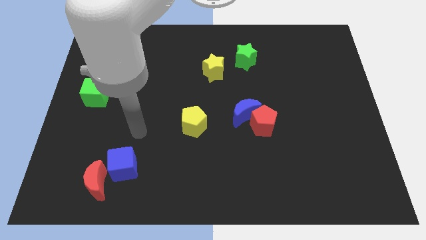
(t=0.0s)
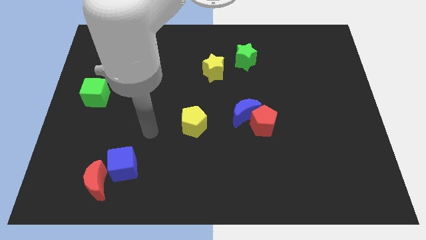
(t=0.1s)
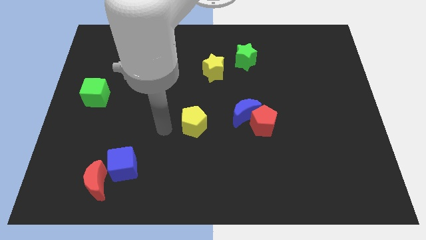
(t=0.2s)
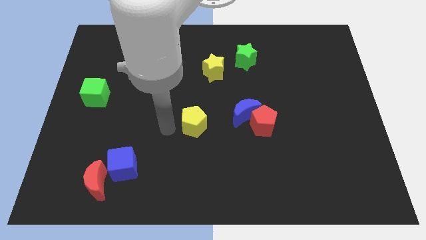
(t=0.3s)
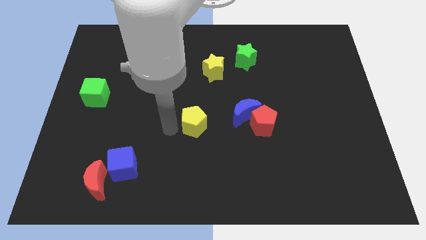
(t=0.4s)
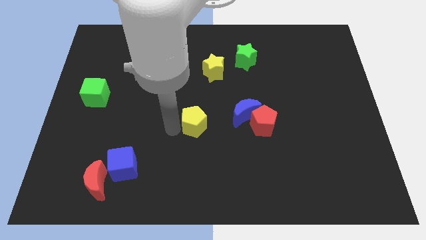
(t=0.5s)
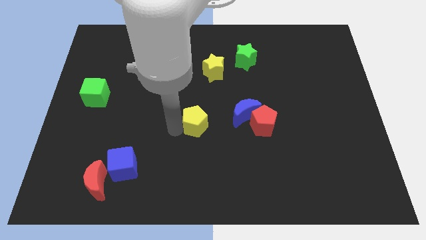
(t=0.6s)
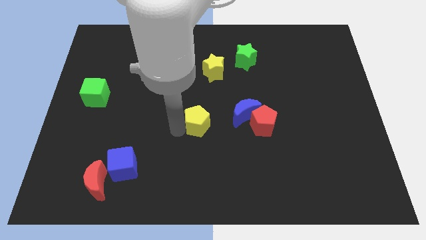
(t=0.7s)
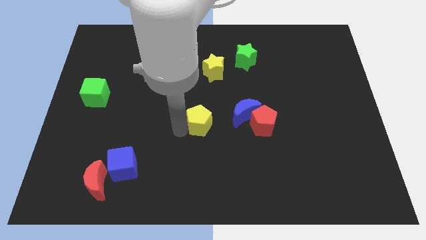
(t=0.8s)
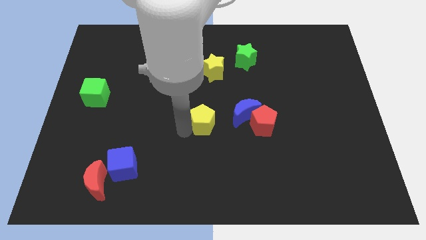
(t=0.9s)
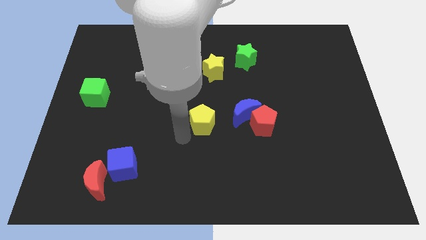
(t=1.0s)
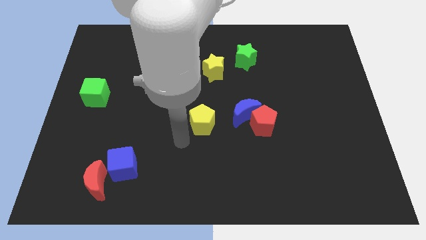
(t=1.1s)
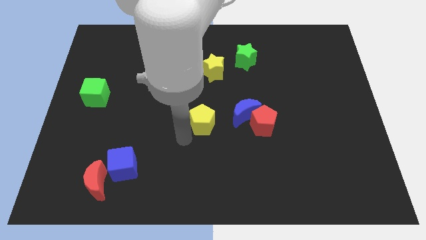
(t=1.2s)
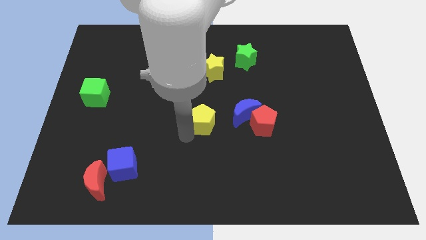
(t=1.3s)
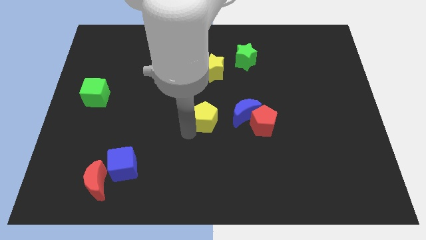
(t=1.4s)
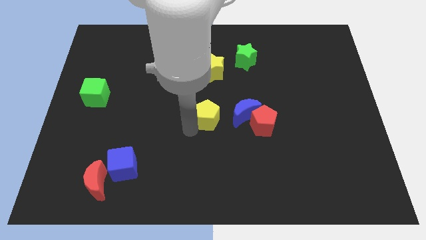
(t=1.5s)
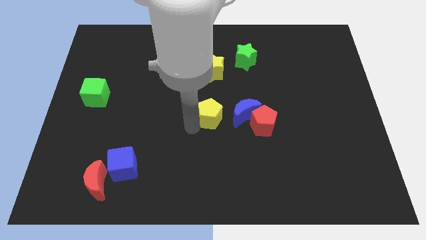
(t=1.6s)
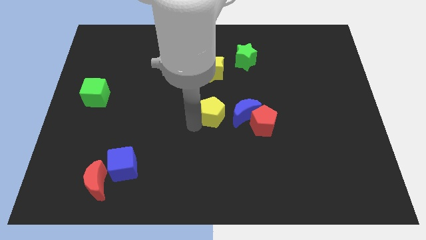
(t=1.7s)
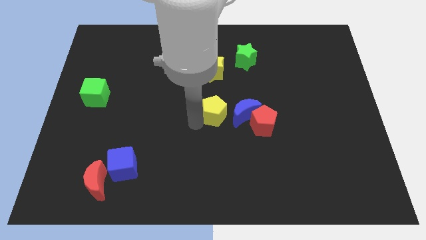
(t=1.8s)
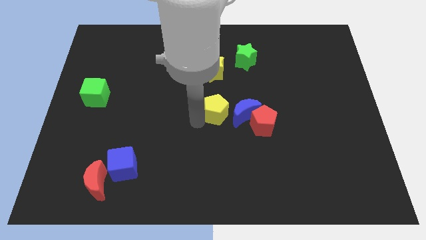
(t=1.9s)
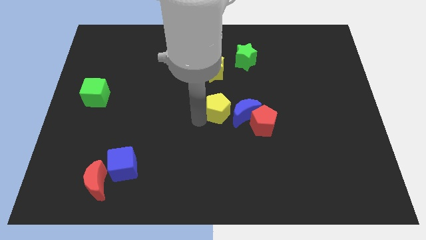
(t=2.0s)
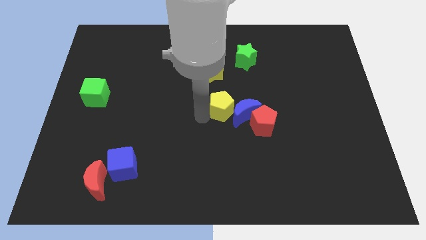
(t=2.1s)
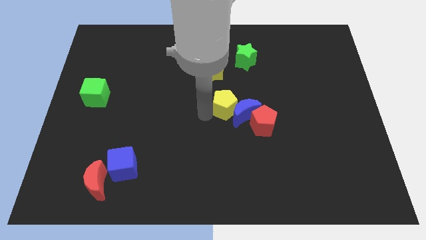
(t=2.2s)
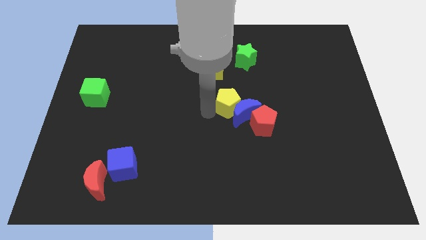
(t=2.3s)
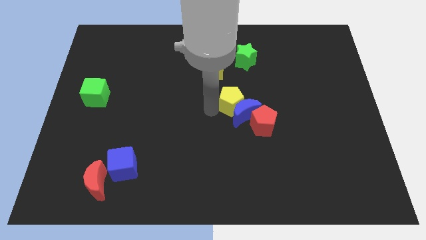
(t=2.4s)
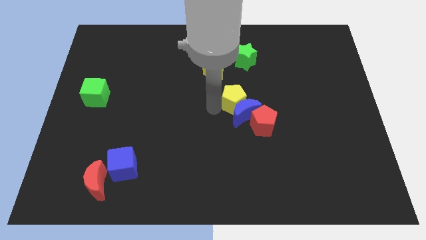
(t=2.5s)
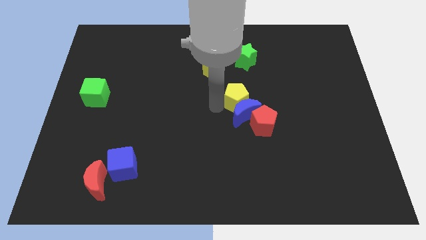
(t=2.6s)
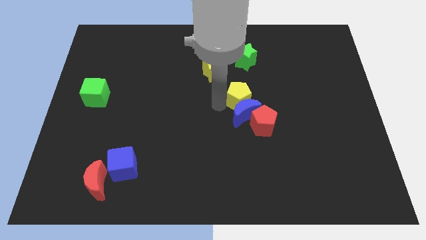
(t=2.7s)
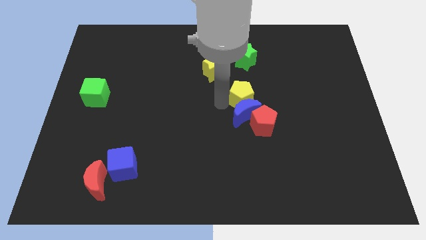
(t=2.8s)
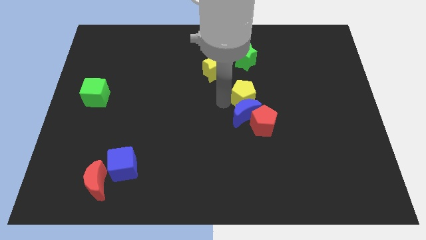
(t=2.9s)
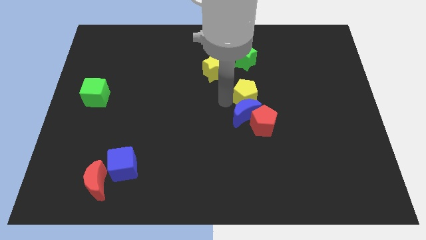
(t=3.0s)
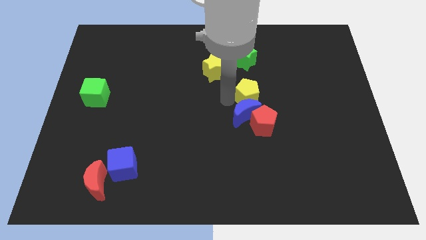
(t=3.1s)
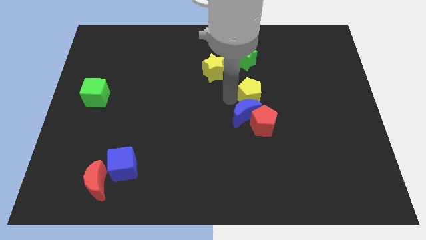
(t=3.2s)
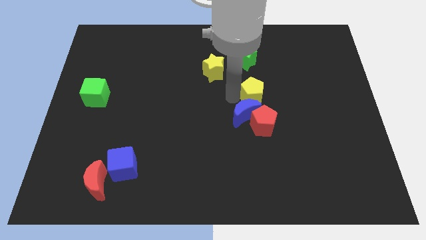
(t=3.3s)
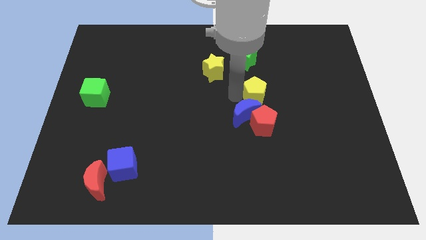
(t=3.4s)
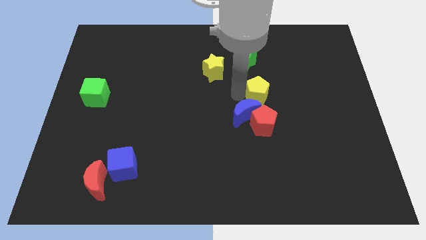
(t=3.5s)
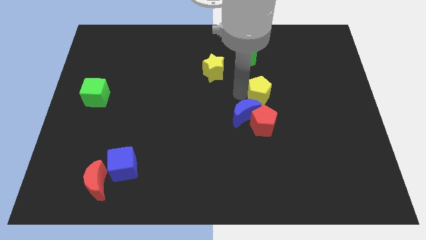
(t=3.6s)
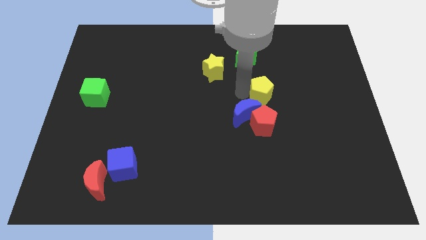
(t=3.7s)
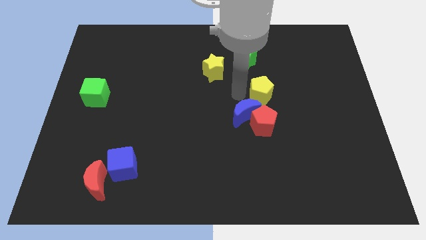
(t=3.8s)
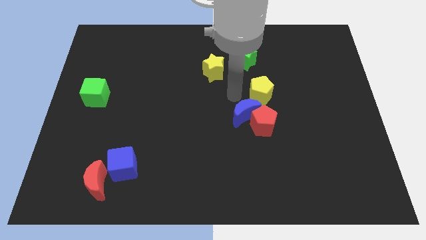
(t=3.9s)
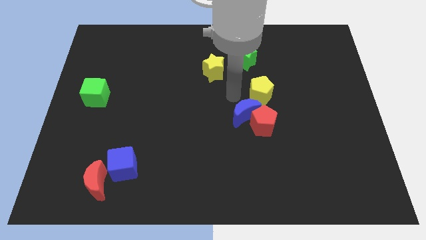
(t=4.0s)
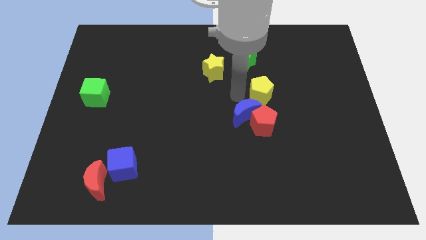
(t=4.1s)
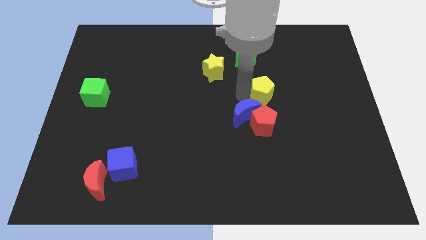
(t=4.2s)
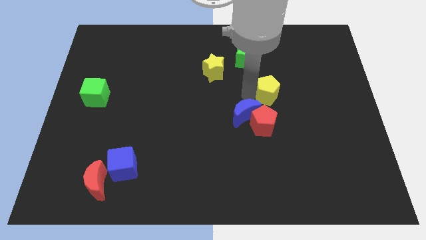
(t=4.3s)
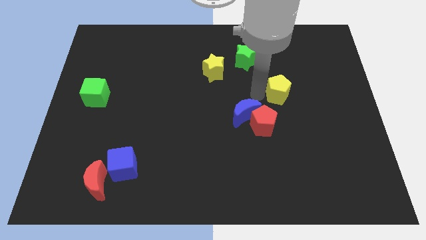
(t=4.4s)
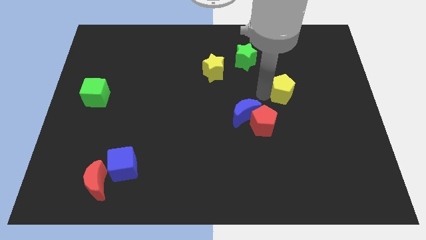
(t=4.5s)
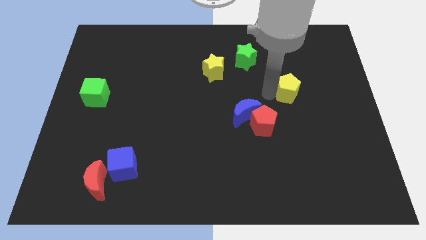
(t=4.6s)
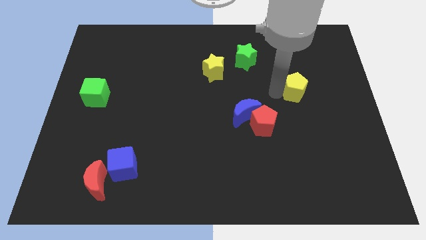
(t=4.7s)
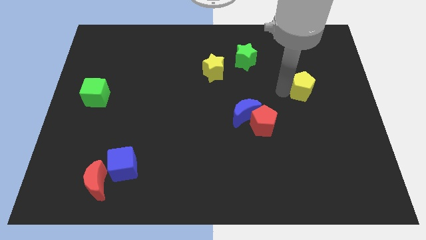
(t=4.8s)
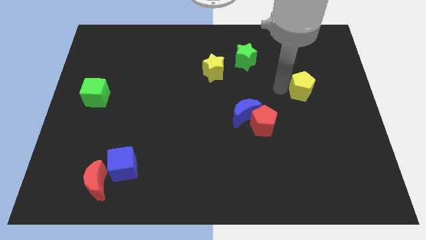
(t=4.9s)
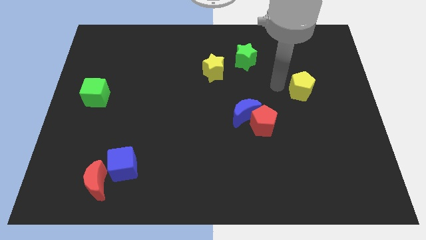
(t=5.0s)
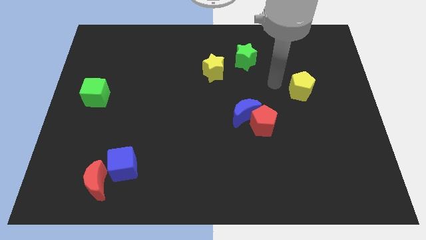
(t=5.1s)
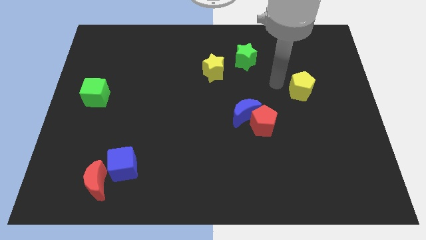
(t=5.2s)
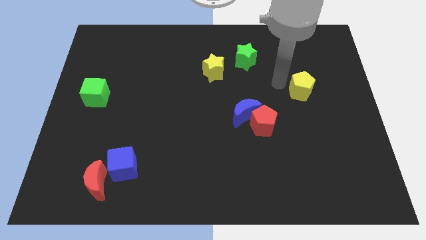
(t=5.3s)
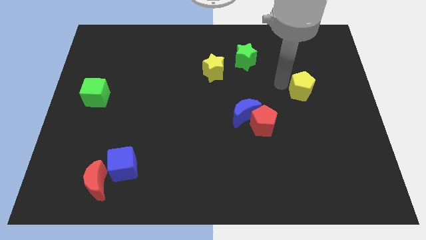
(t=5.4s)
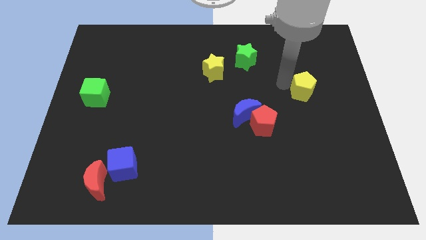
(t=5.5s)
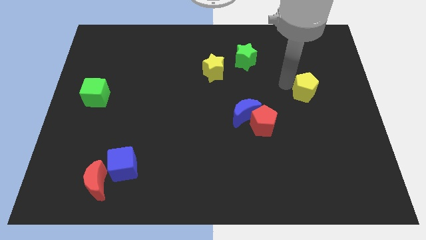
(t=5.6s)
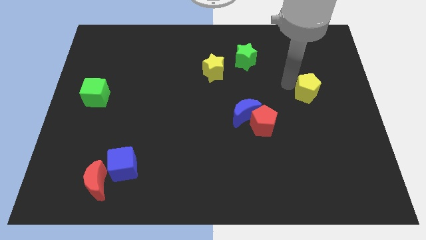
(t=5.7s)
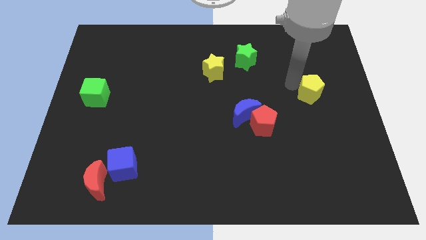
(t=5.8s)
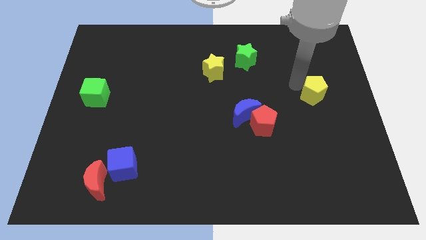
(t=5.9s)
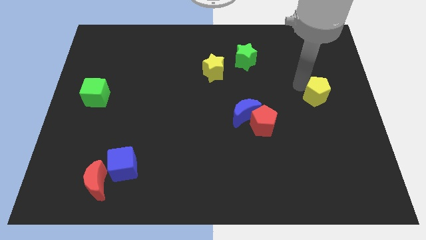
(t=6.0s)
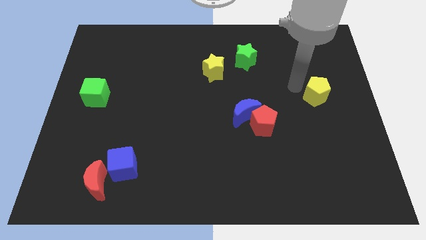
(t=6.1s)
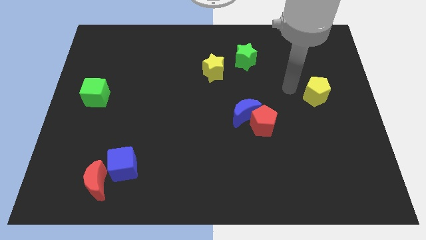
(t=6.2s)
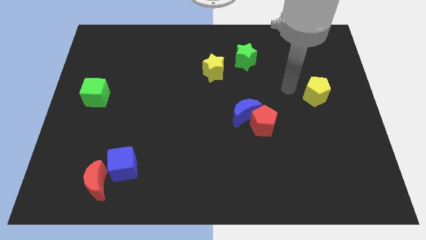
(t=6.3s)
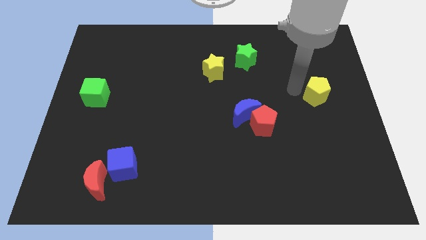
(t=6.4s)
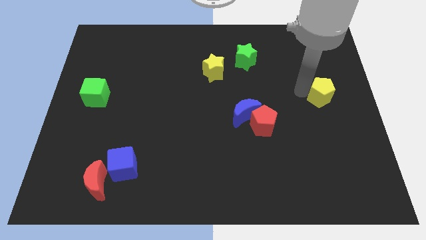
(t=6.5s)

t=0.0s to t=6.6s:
slide the yellow pentagon to the center right
